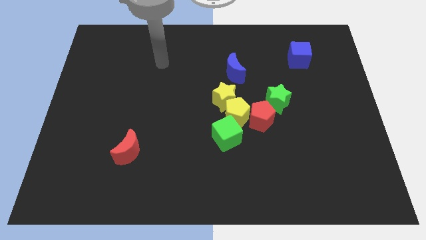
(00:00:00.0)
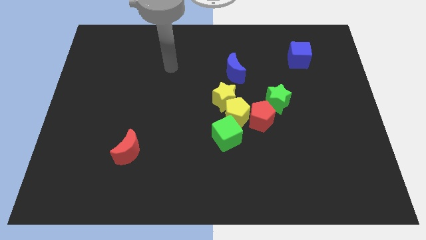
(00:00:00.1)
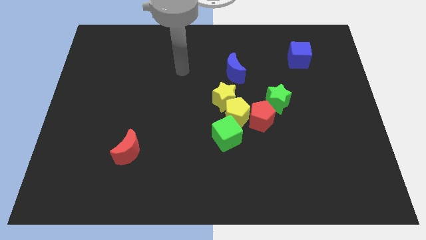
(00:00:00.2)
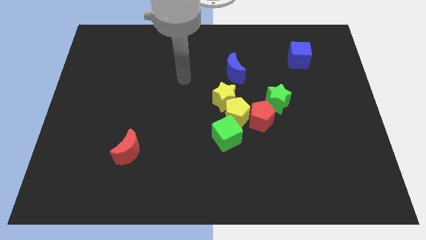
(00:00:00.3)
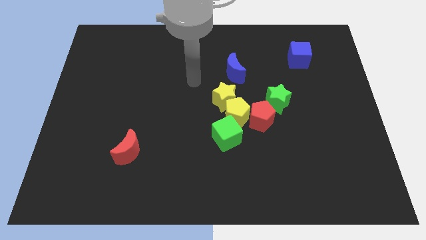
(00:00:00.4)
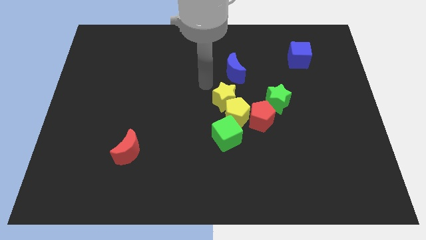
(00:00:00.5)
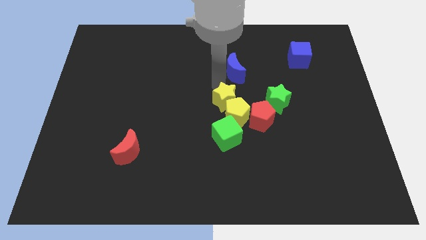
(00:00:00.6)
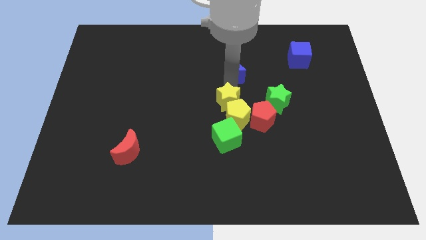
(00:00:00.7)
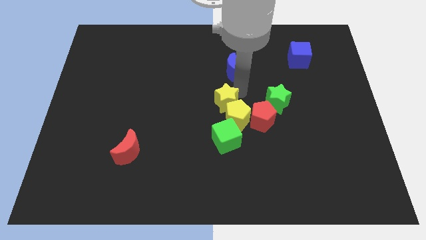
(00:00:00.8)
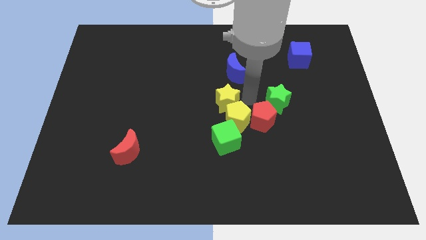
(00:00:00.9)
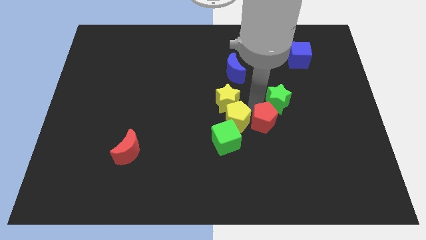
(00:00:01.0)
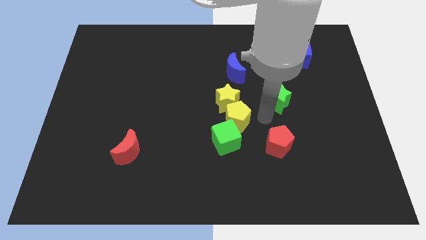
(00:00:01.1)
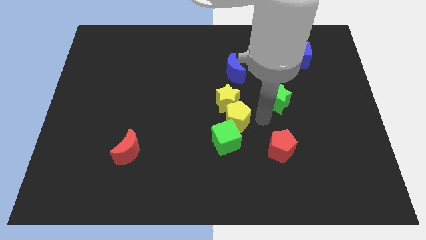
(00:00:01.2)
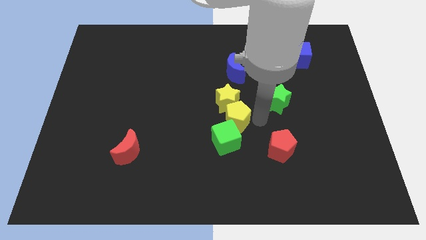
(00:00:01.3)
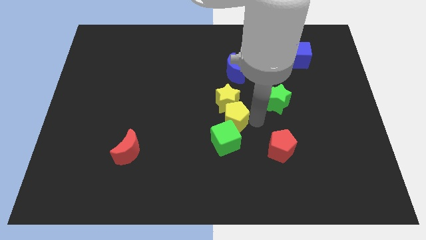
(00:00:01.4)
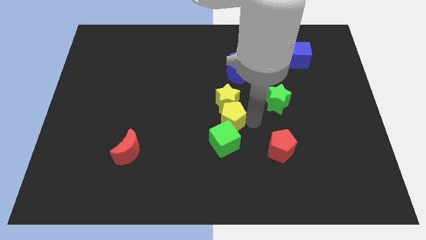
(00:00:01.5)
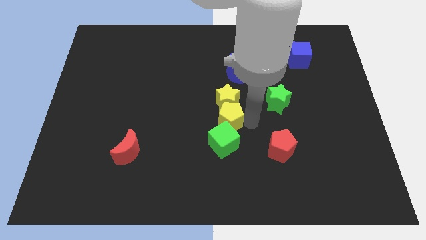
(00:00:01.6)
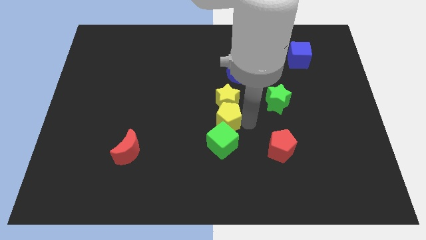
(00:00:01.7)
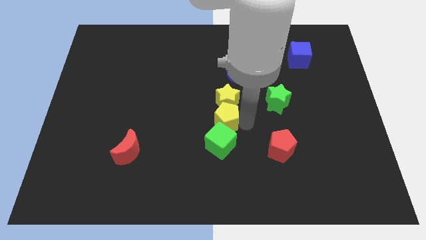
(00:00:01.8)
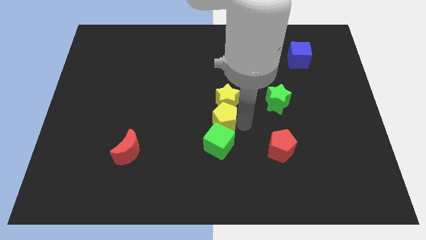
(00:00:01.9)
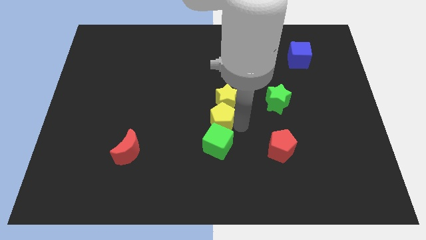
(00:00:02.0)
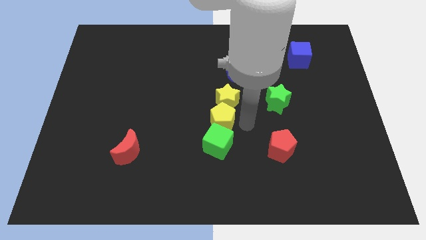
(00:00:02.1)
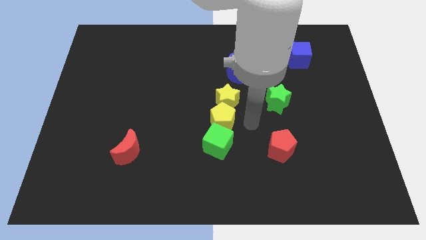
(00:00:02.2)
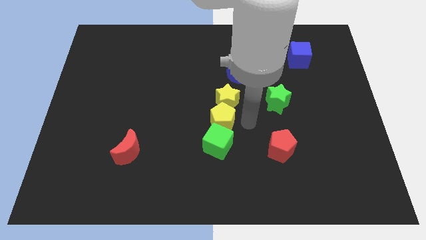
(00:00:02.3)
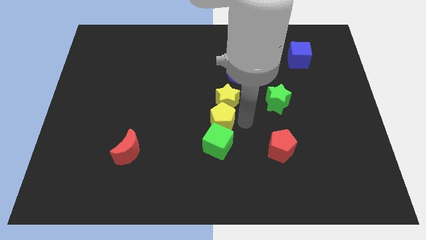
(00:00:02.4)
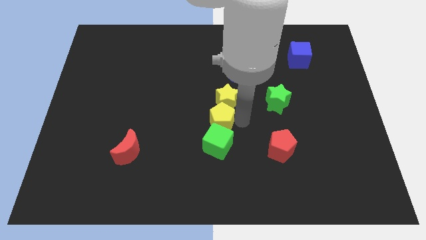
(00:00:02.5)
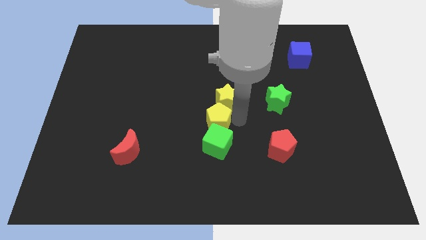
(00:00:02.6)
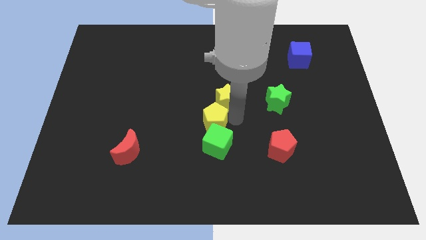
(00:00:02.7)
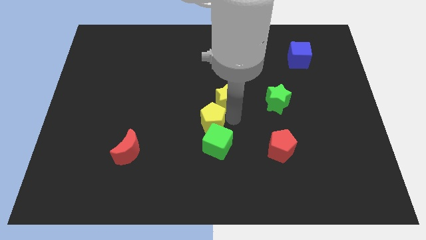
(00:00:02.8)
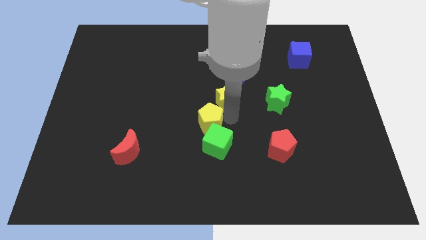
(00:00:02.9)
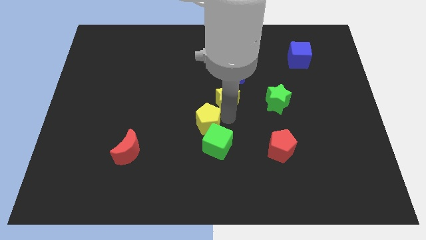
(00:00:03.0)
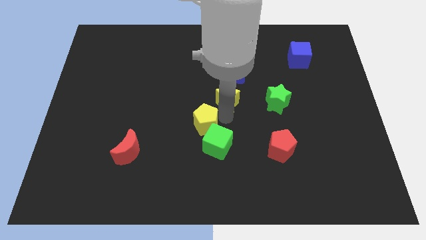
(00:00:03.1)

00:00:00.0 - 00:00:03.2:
move the yellow pentagon away from the clump

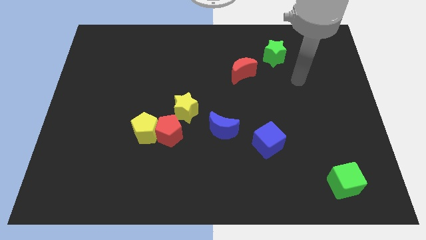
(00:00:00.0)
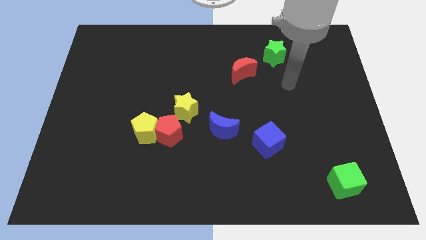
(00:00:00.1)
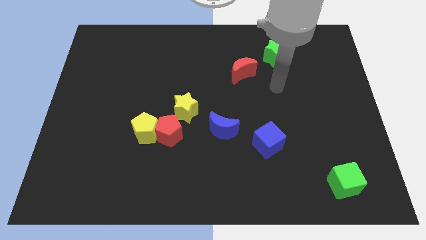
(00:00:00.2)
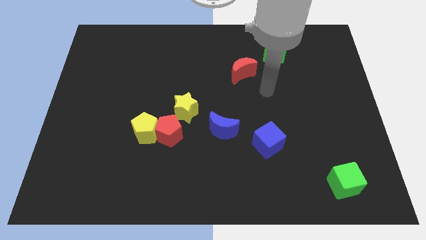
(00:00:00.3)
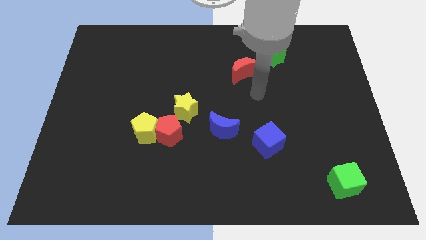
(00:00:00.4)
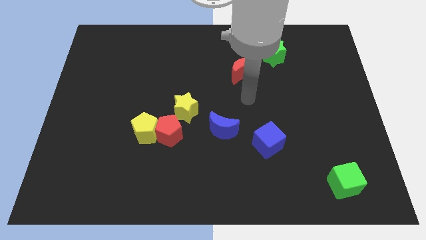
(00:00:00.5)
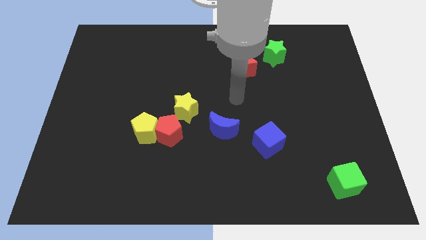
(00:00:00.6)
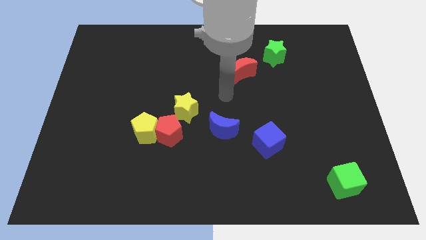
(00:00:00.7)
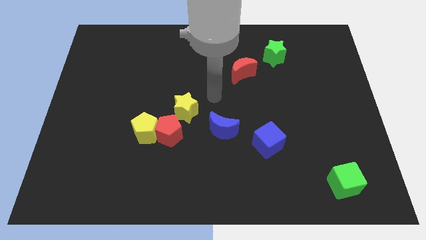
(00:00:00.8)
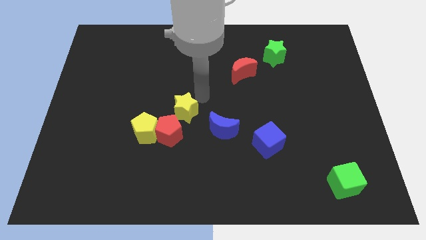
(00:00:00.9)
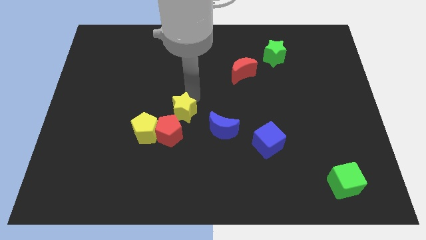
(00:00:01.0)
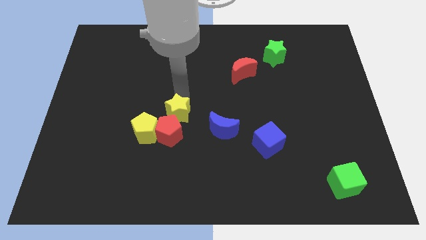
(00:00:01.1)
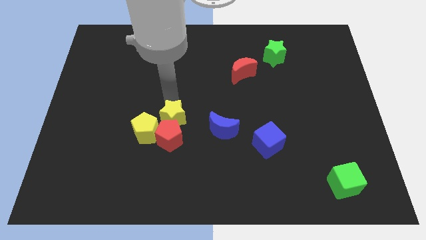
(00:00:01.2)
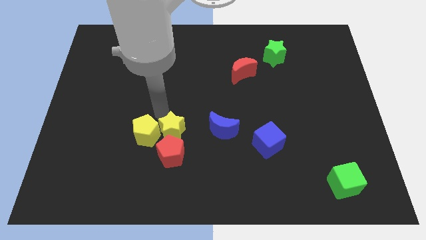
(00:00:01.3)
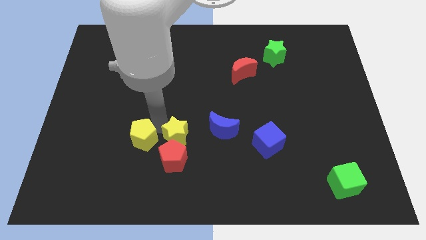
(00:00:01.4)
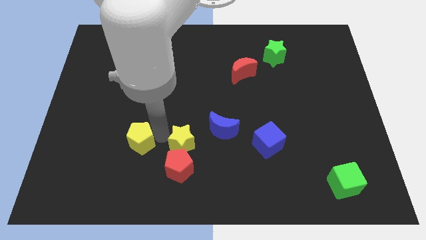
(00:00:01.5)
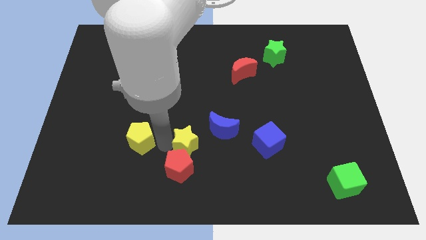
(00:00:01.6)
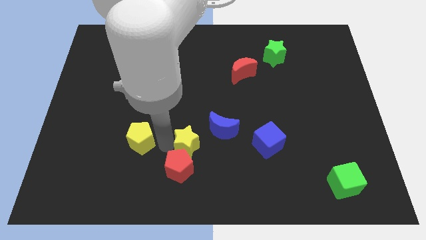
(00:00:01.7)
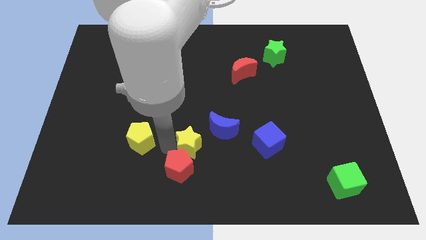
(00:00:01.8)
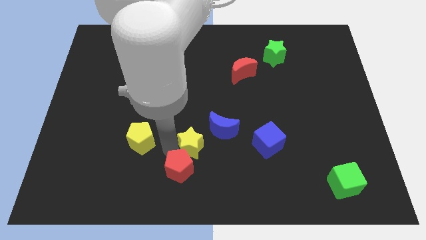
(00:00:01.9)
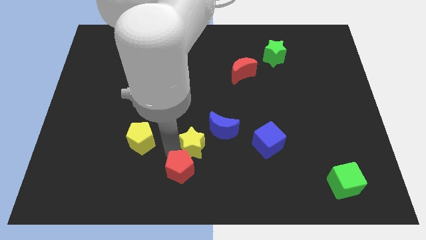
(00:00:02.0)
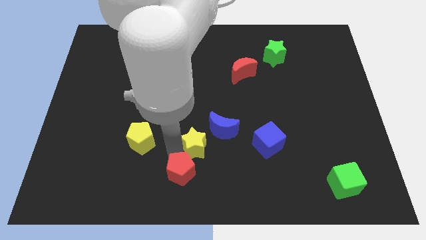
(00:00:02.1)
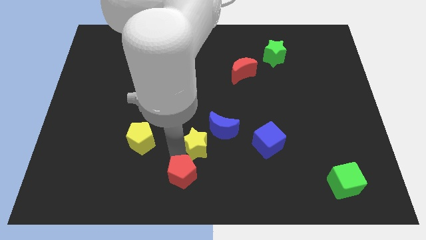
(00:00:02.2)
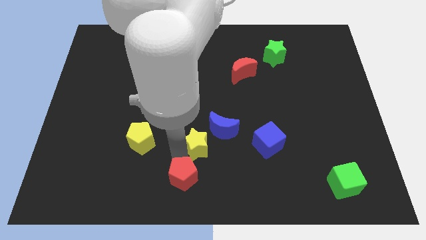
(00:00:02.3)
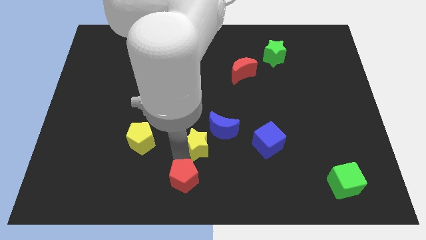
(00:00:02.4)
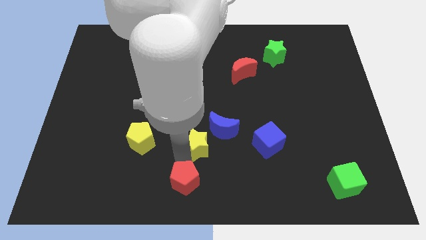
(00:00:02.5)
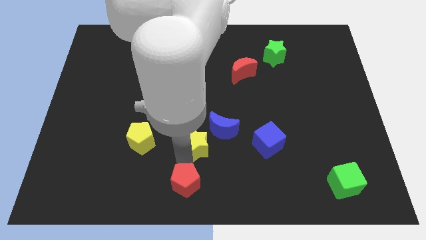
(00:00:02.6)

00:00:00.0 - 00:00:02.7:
pull the red pentagon apart from the yellow pentagon and yellow star

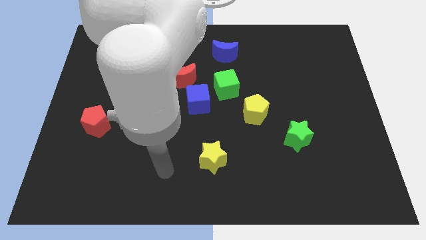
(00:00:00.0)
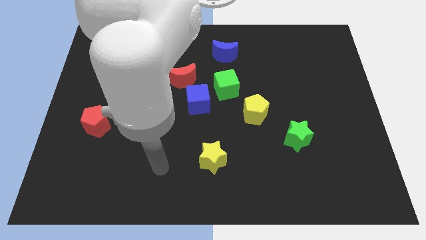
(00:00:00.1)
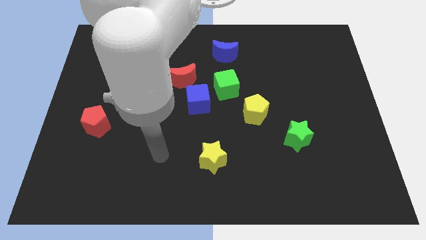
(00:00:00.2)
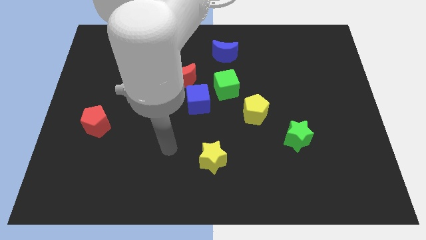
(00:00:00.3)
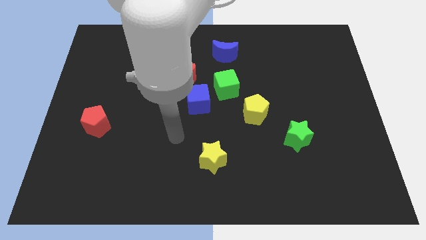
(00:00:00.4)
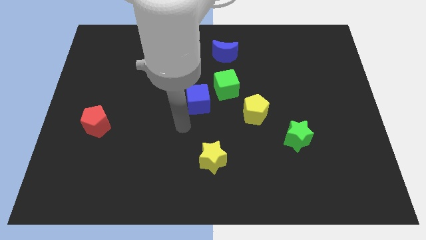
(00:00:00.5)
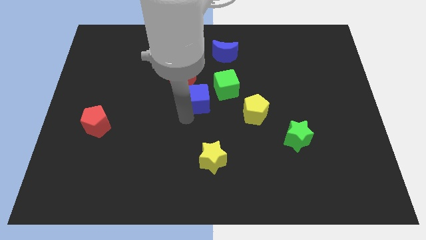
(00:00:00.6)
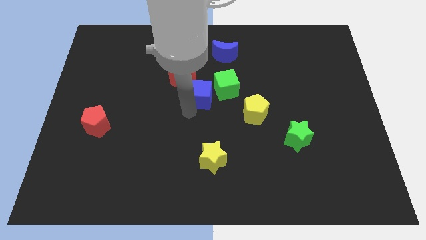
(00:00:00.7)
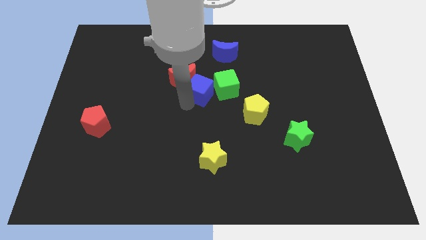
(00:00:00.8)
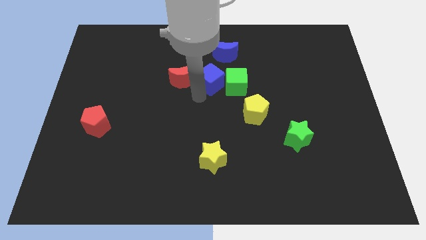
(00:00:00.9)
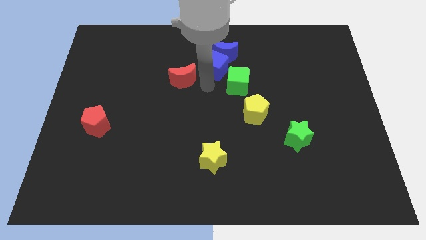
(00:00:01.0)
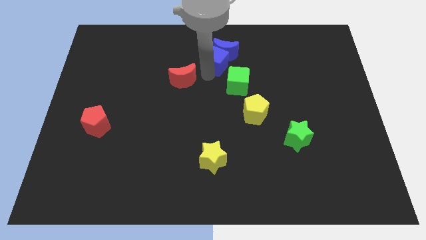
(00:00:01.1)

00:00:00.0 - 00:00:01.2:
move the red moon away from the blue cube

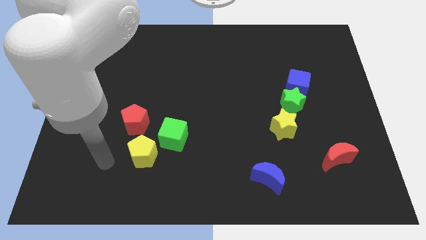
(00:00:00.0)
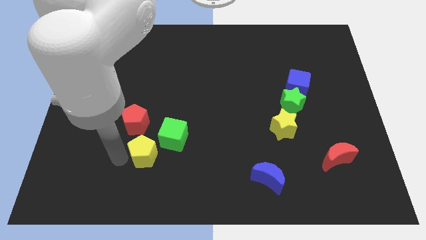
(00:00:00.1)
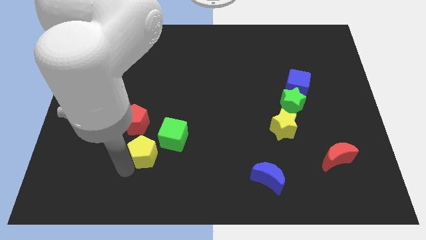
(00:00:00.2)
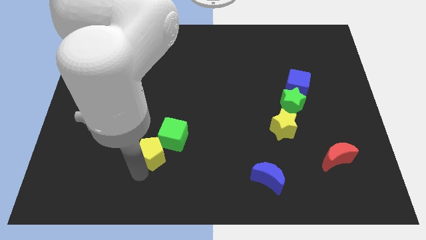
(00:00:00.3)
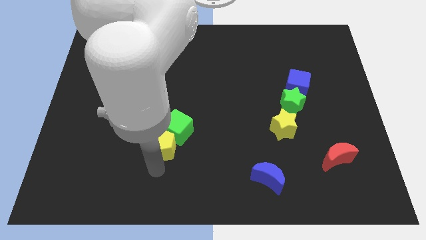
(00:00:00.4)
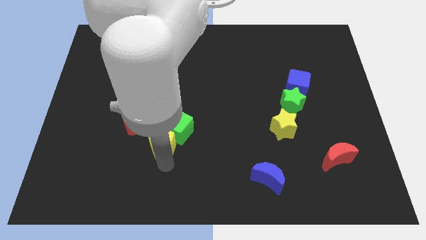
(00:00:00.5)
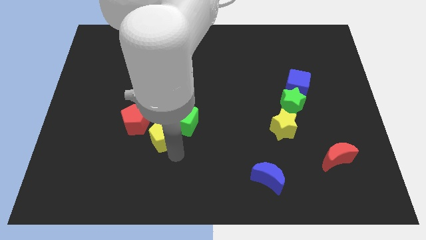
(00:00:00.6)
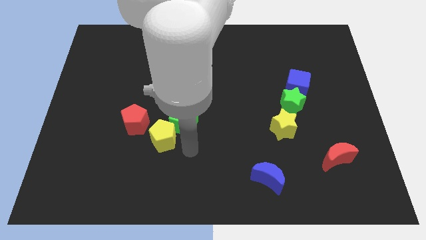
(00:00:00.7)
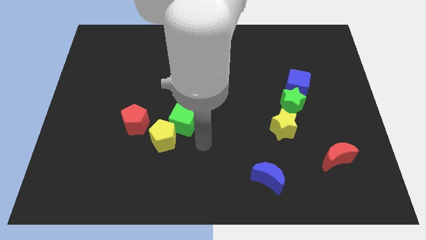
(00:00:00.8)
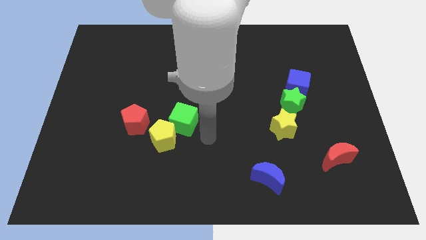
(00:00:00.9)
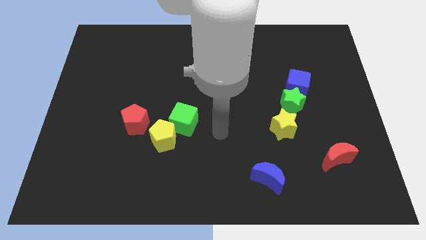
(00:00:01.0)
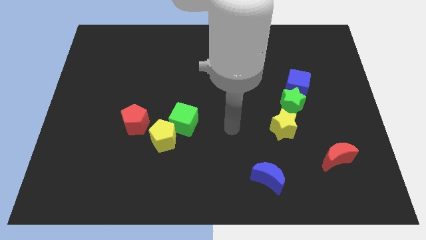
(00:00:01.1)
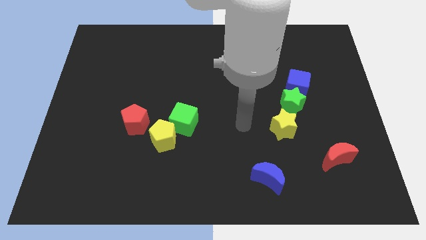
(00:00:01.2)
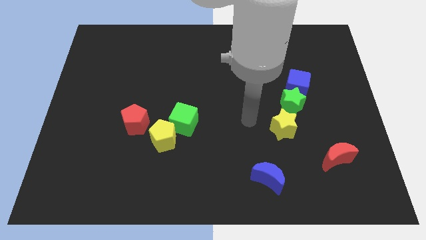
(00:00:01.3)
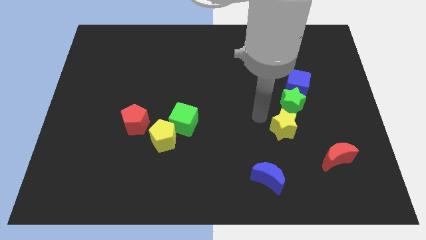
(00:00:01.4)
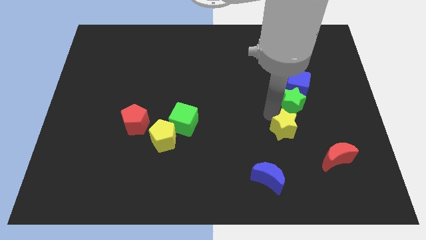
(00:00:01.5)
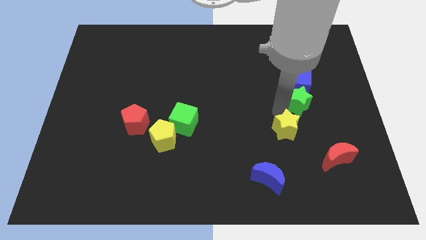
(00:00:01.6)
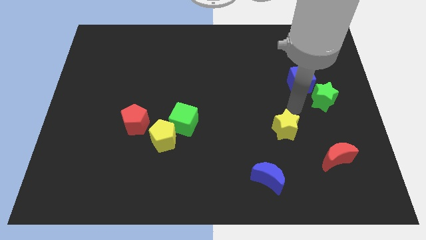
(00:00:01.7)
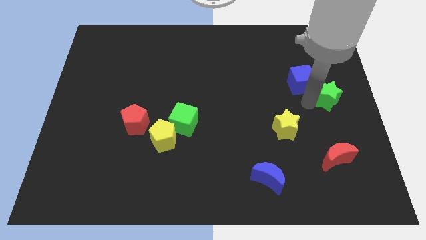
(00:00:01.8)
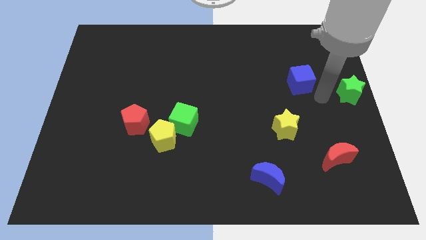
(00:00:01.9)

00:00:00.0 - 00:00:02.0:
separate the blue cube from the green star
